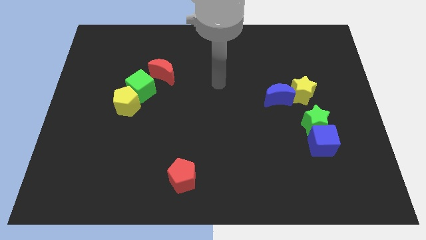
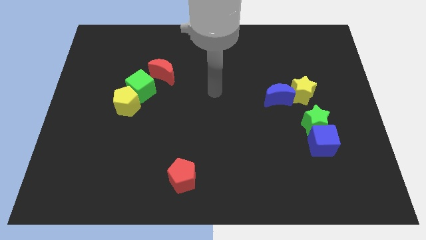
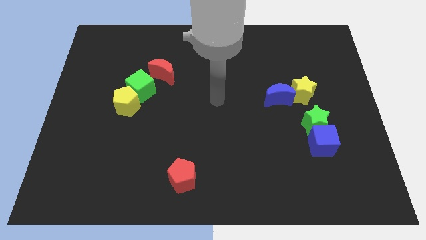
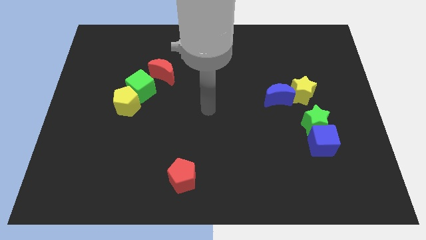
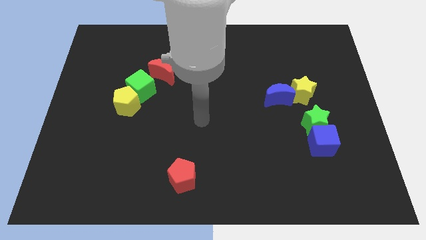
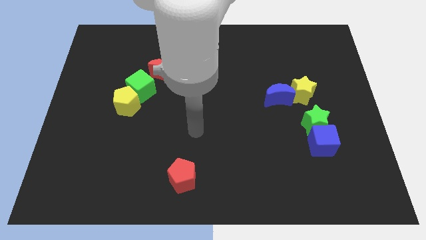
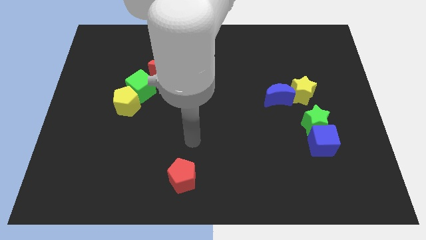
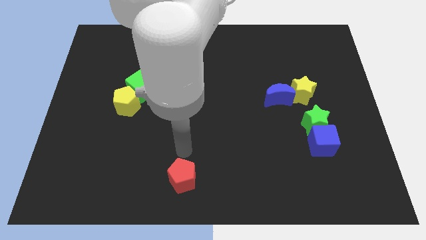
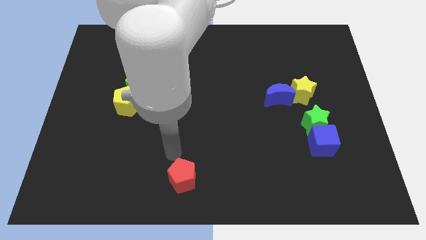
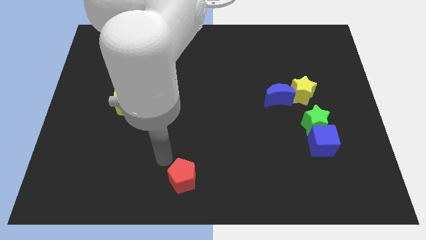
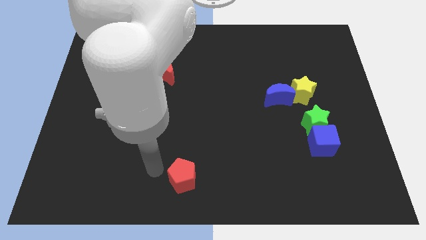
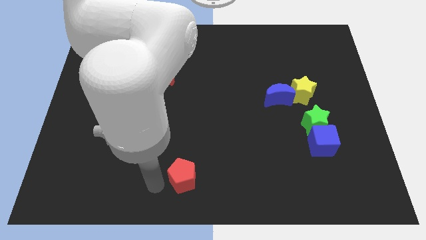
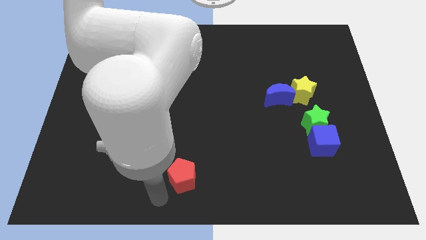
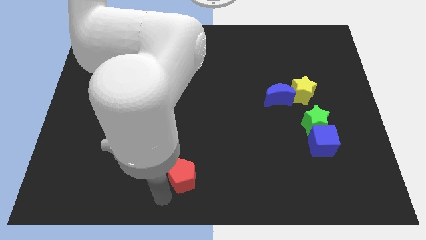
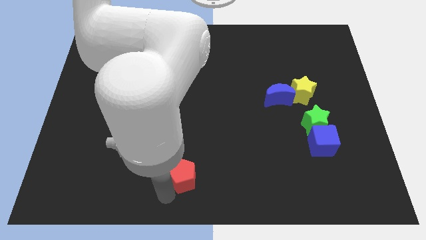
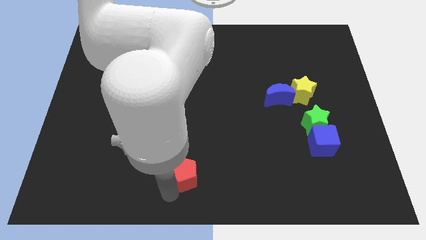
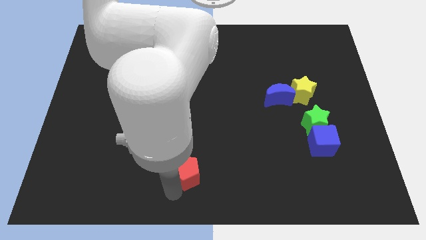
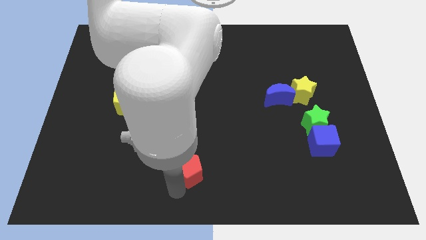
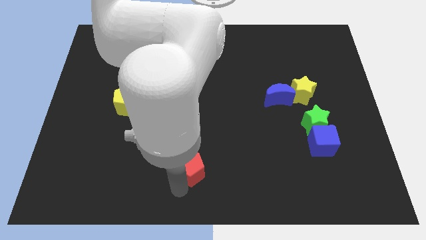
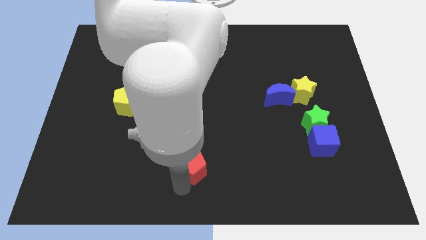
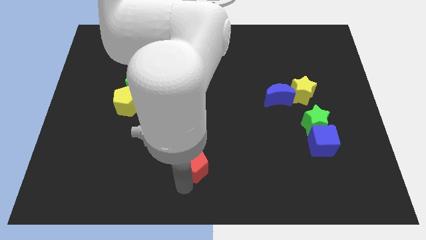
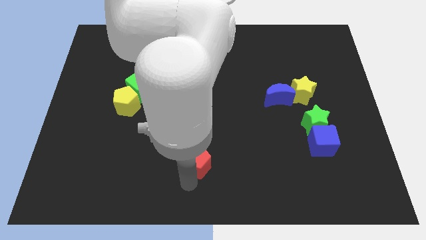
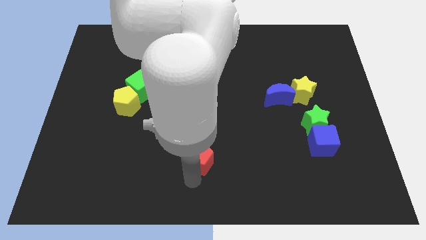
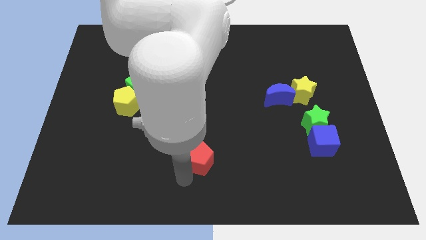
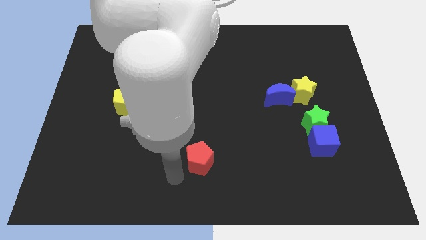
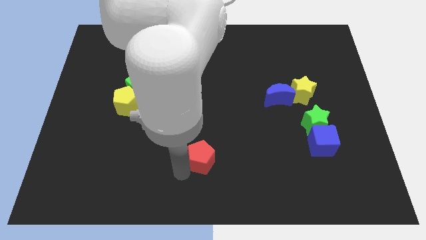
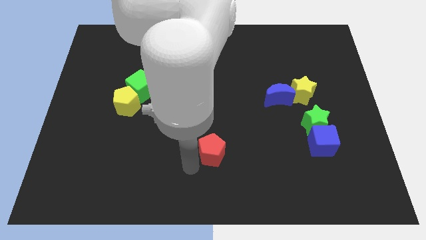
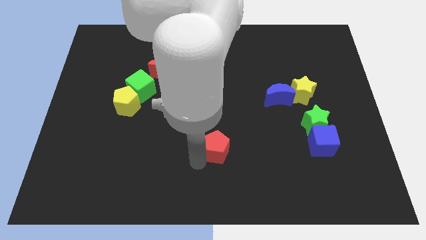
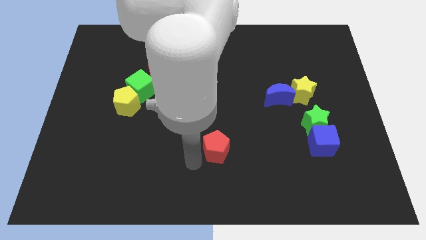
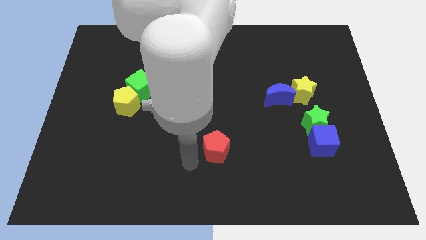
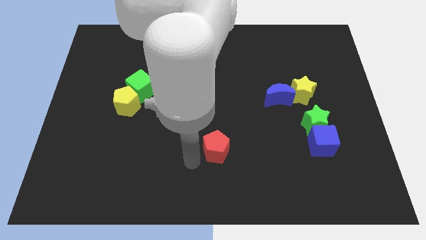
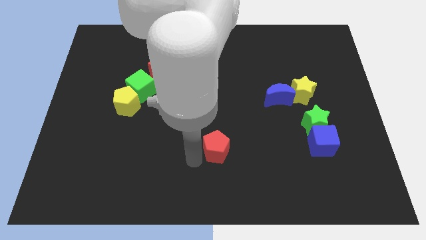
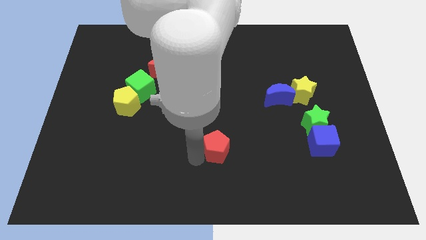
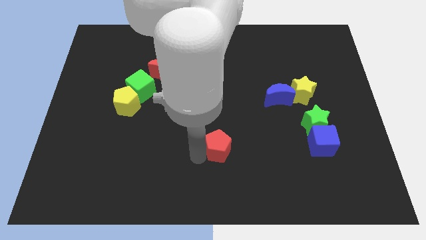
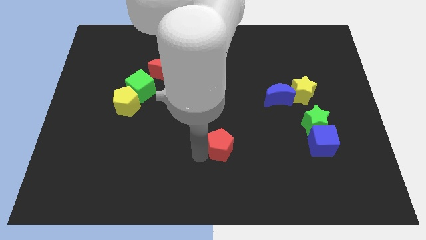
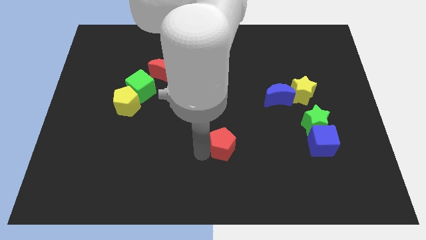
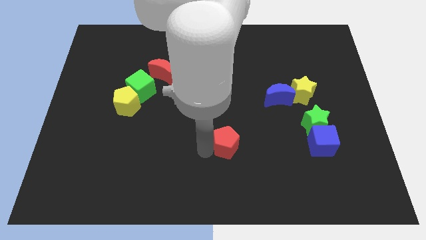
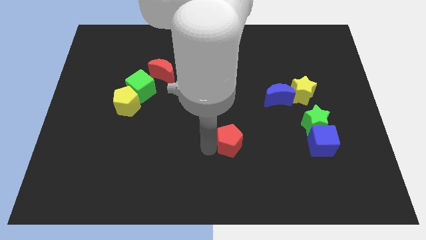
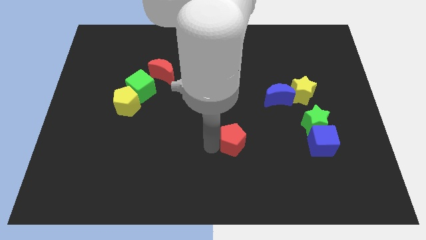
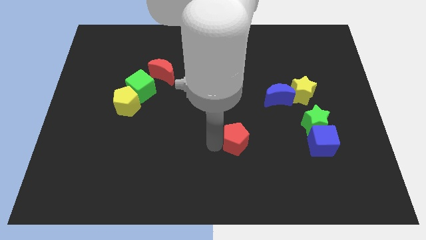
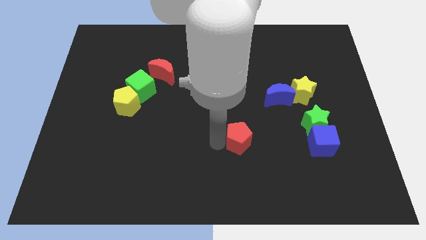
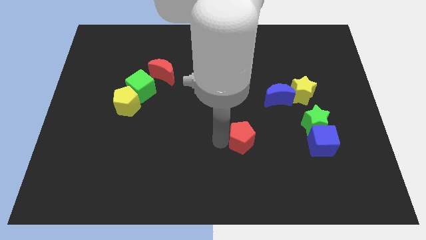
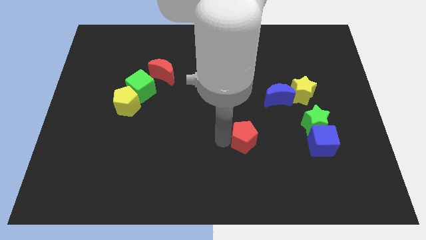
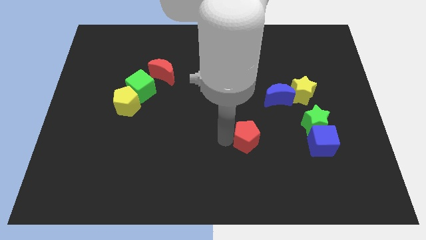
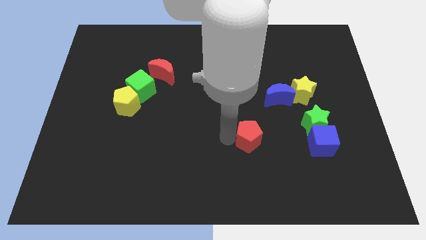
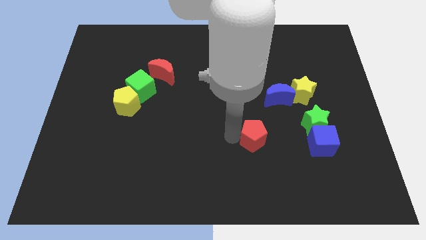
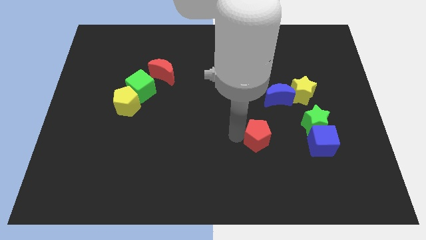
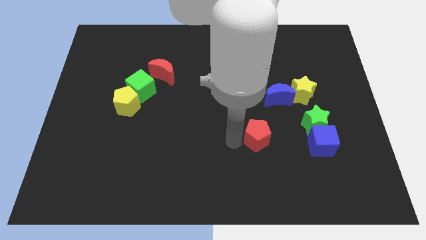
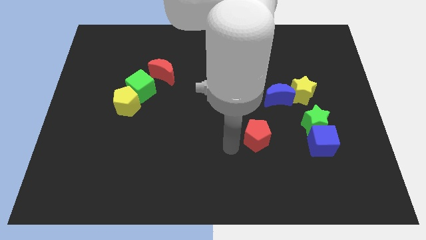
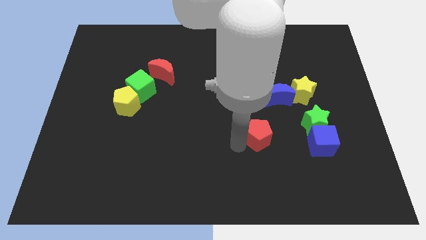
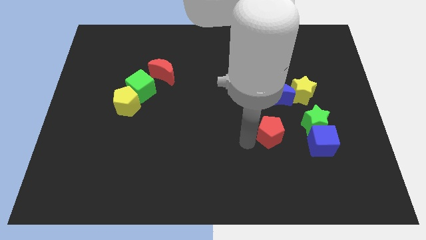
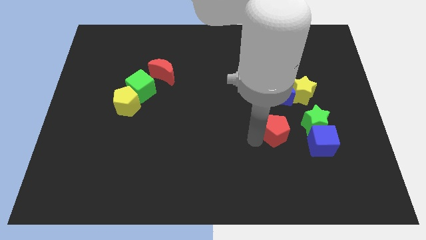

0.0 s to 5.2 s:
push the red pentagon diagonally up and to the left of the blue cube

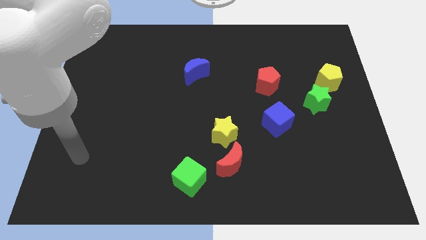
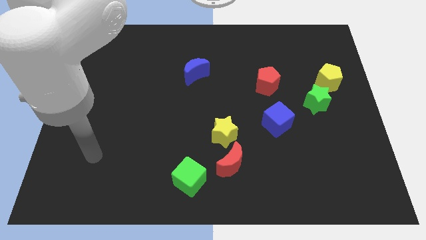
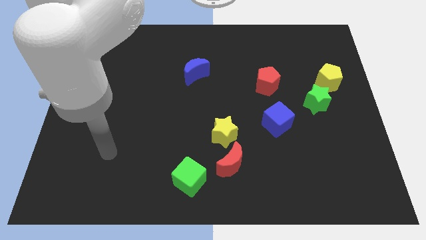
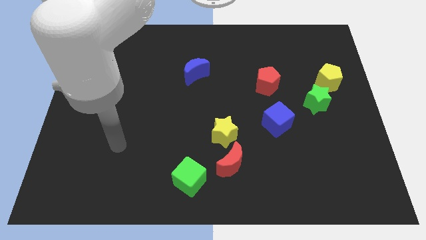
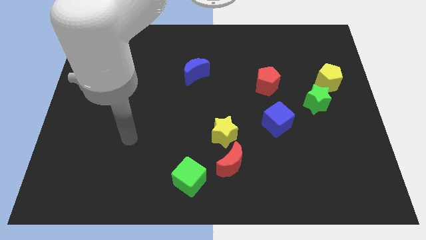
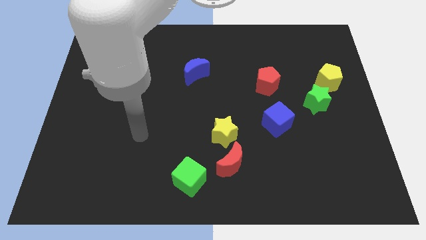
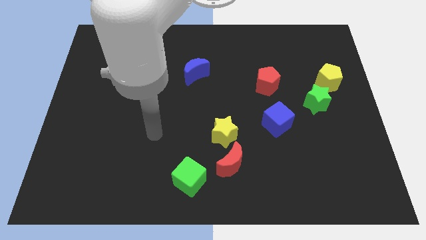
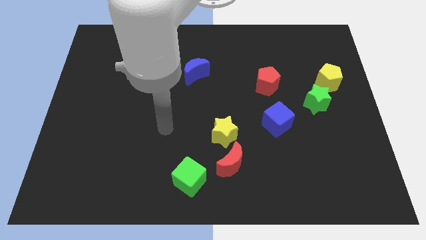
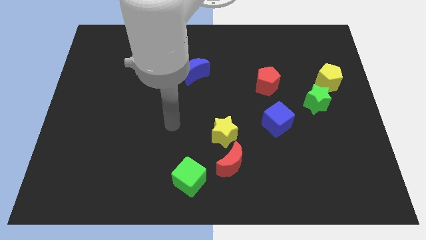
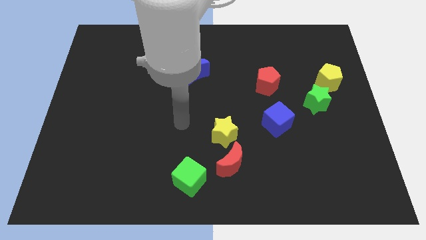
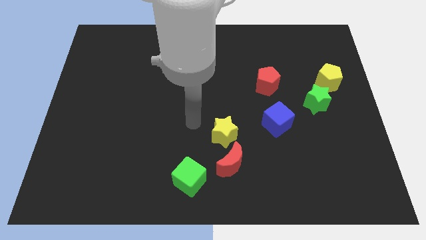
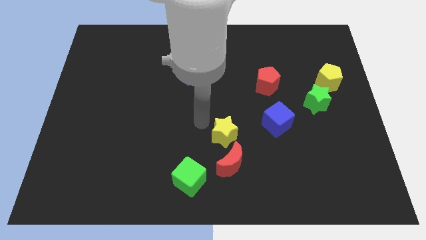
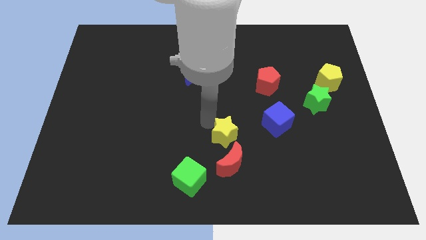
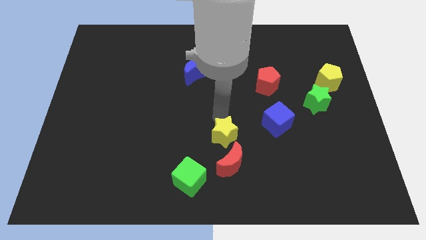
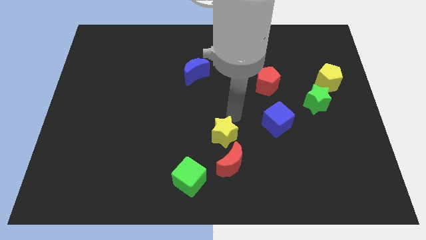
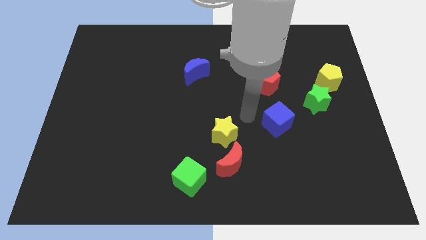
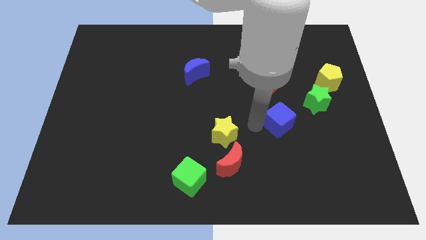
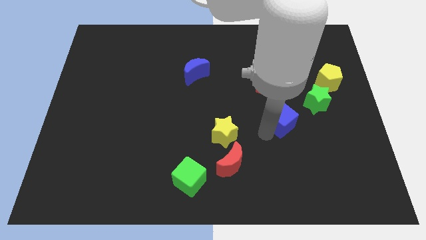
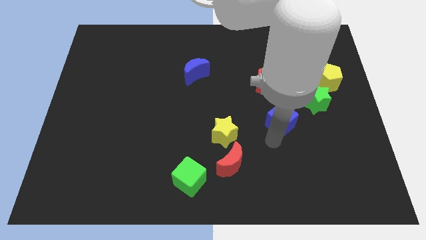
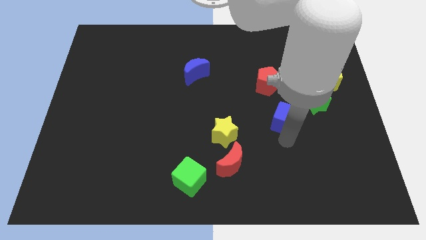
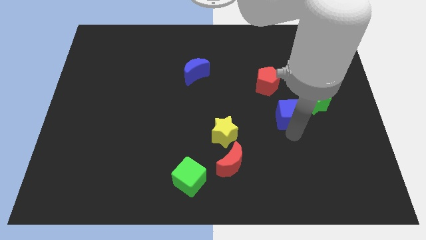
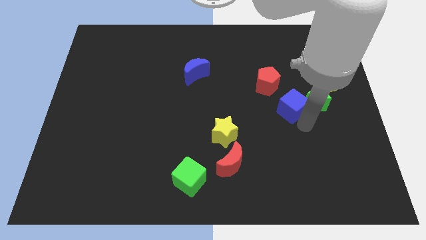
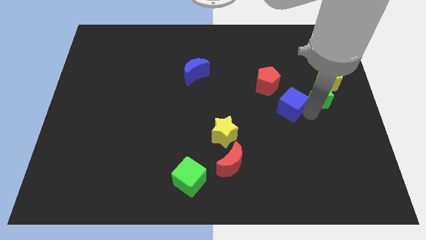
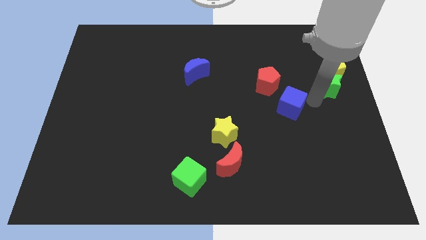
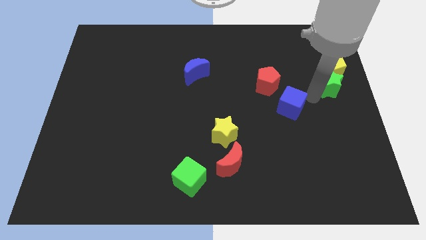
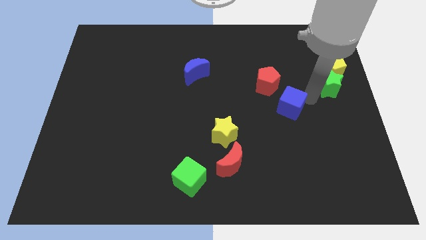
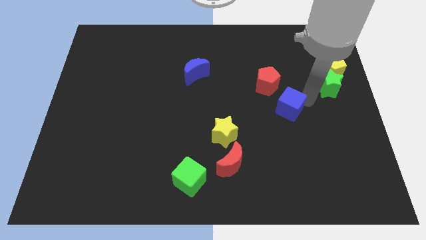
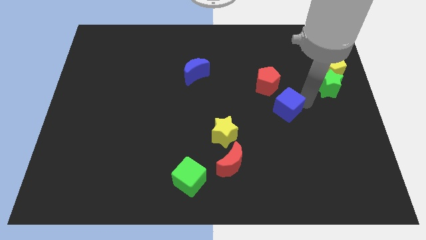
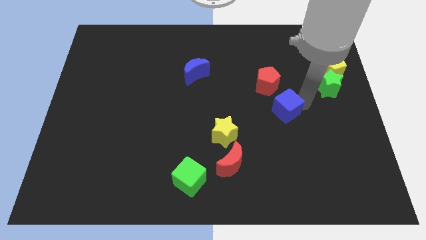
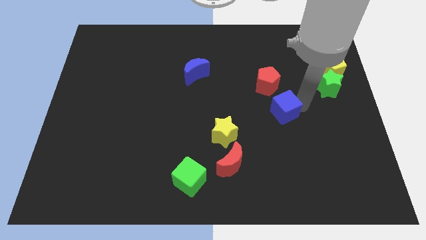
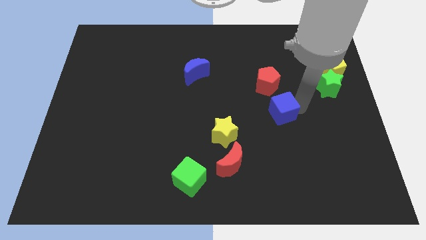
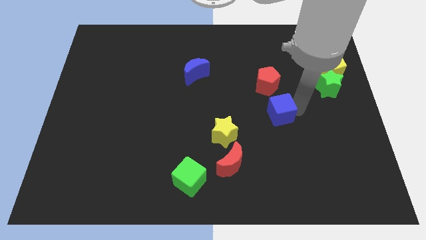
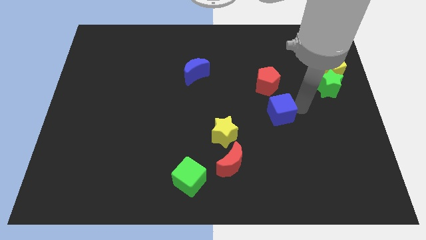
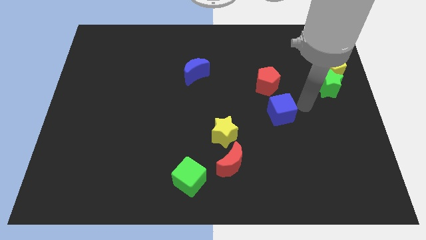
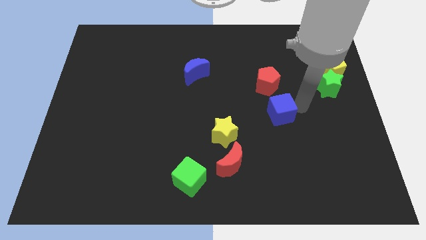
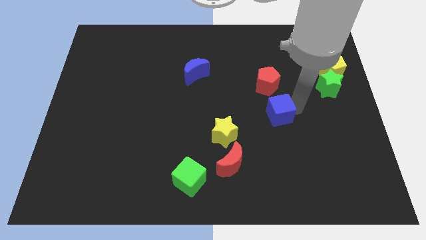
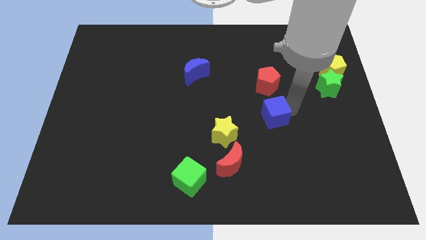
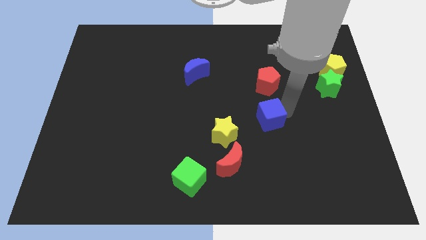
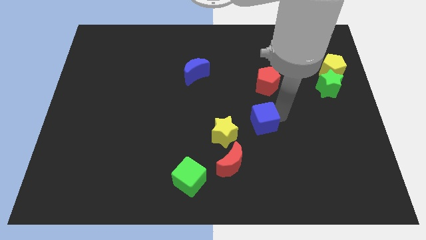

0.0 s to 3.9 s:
move the blue cube diagonally up and to the right of the yellow star
